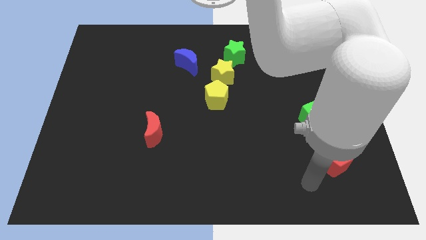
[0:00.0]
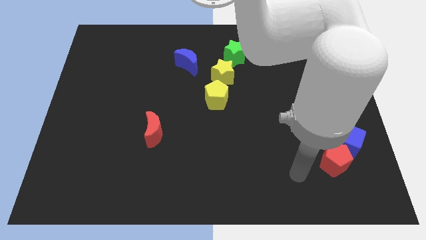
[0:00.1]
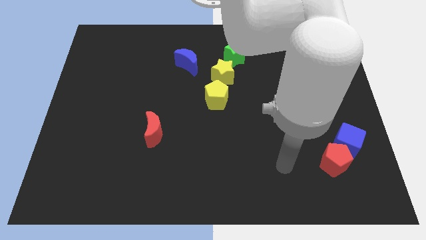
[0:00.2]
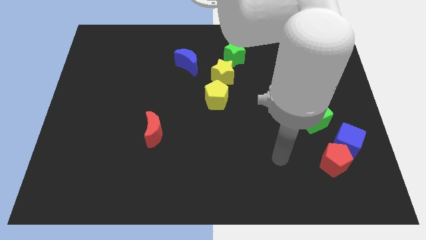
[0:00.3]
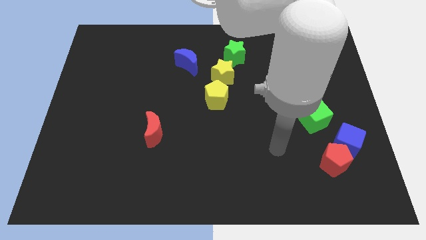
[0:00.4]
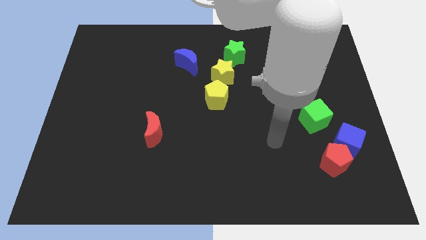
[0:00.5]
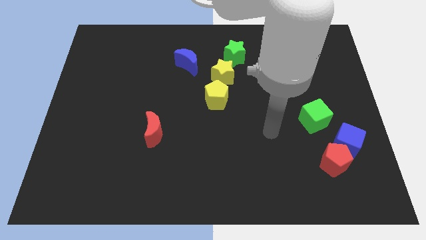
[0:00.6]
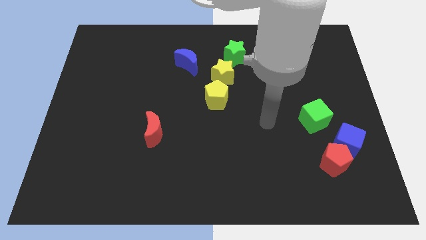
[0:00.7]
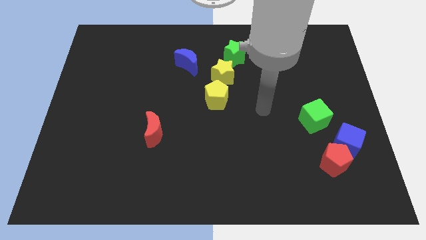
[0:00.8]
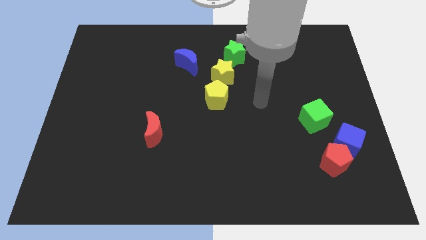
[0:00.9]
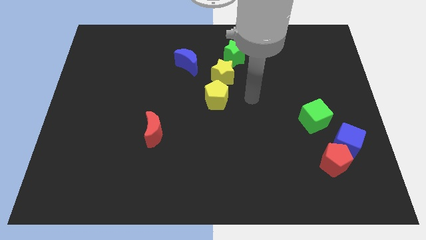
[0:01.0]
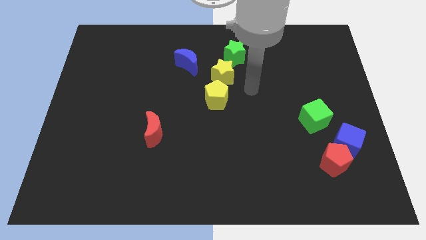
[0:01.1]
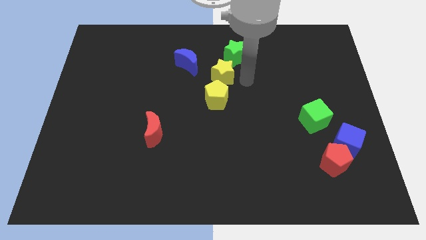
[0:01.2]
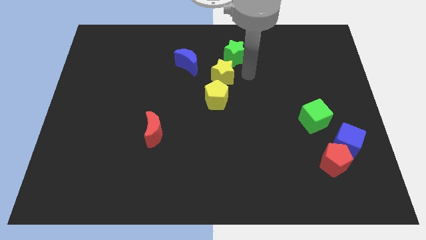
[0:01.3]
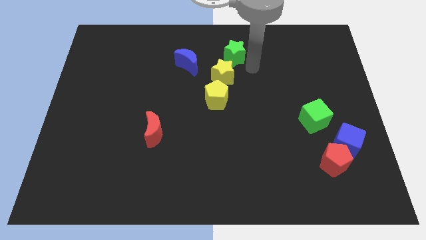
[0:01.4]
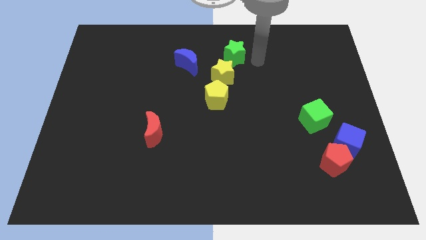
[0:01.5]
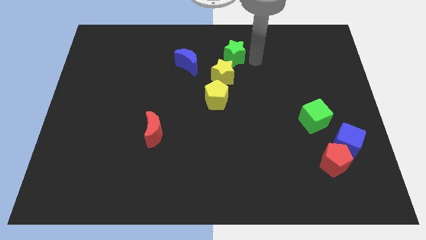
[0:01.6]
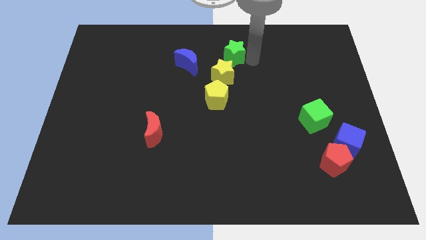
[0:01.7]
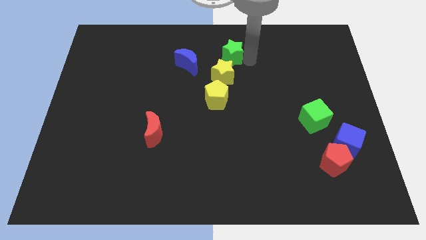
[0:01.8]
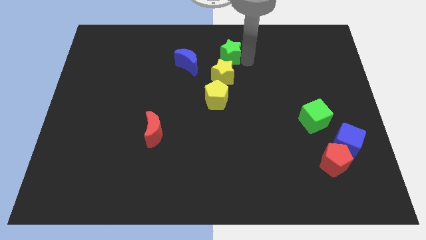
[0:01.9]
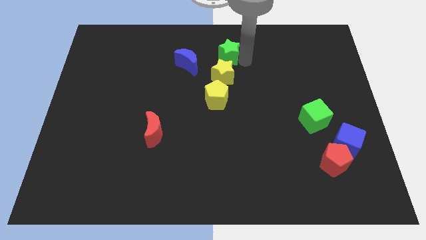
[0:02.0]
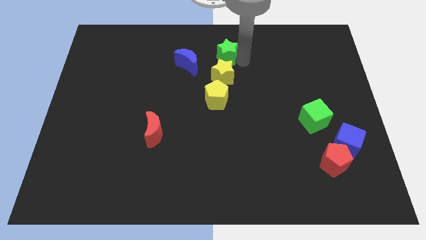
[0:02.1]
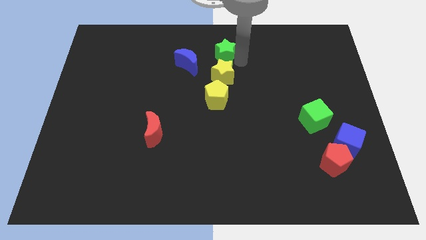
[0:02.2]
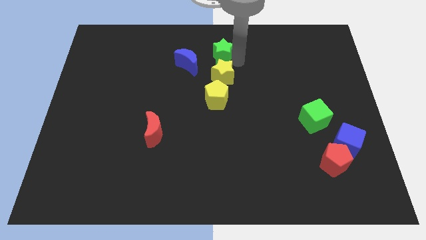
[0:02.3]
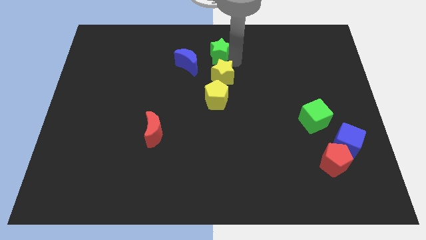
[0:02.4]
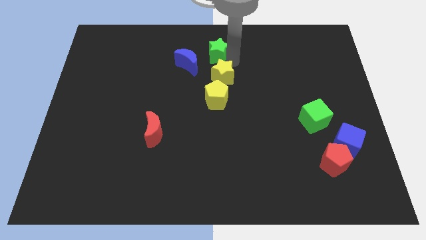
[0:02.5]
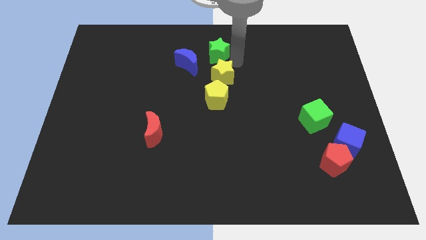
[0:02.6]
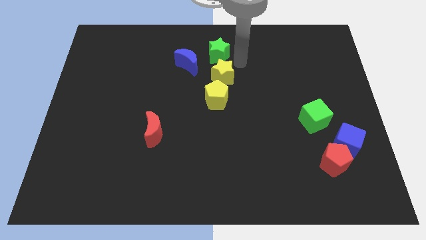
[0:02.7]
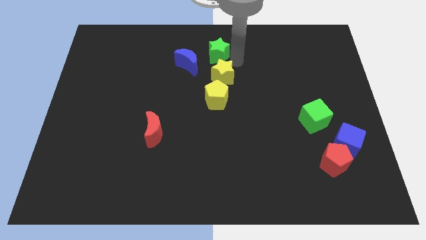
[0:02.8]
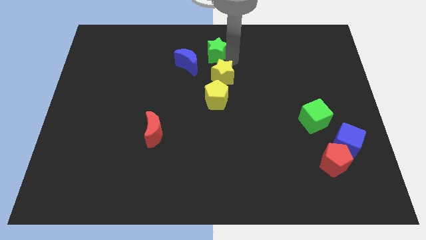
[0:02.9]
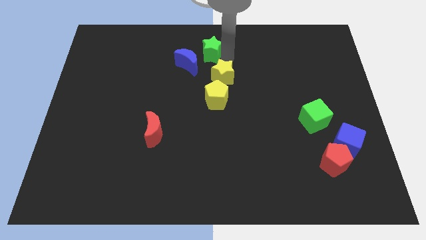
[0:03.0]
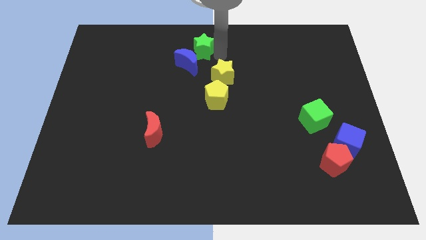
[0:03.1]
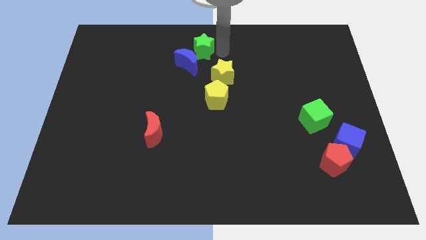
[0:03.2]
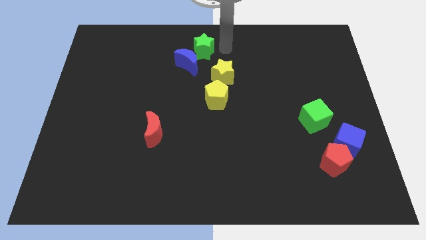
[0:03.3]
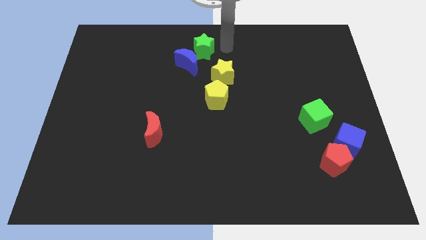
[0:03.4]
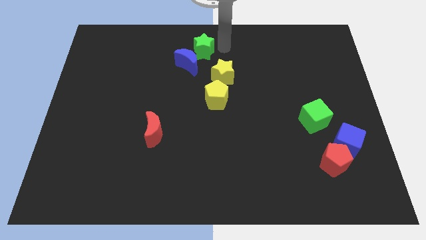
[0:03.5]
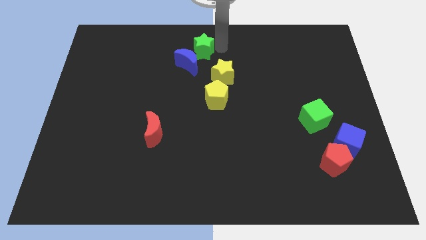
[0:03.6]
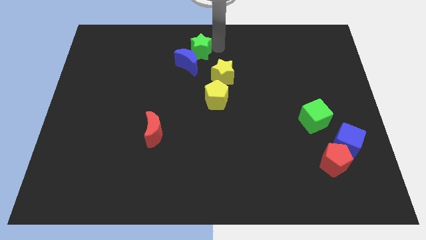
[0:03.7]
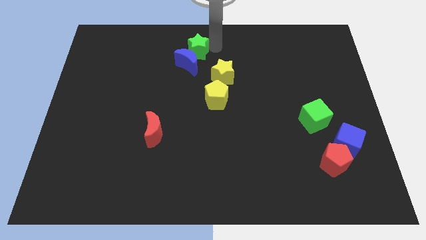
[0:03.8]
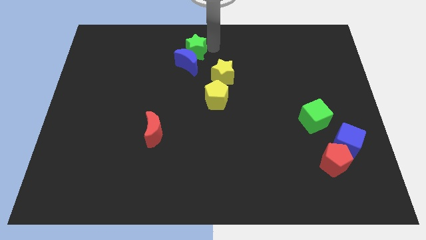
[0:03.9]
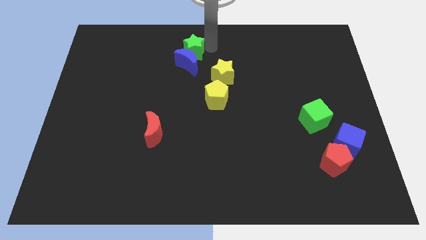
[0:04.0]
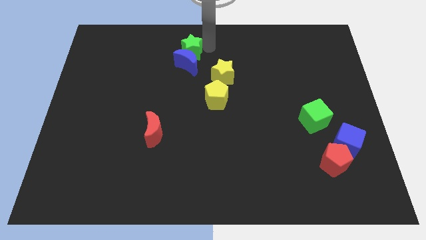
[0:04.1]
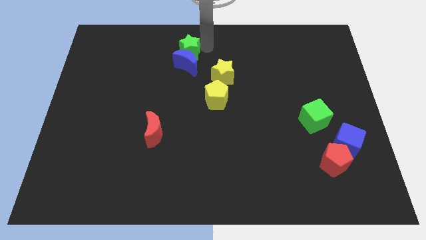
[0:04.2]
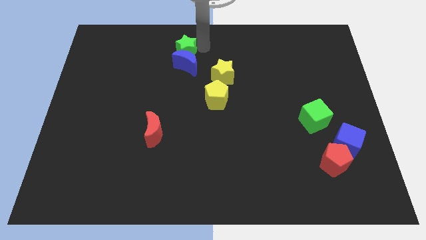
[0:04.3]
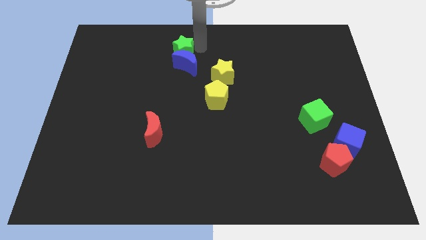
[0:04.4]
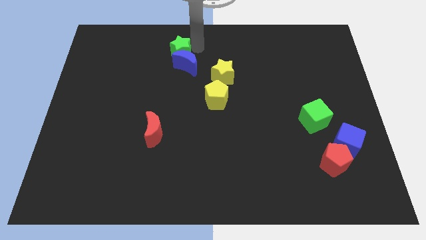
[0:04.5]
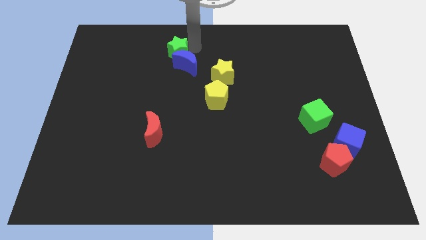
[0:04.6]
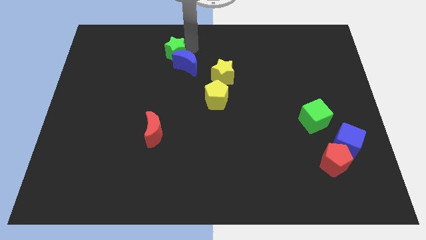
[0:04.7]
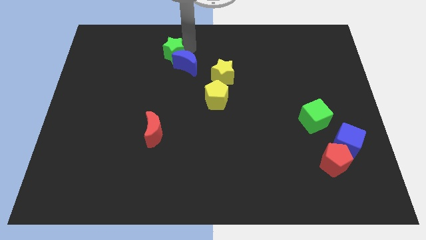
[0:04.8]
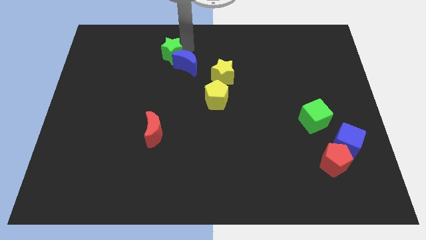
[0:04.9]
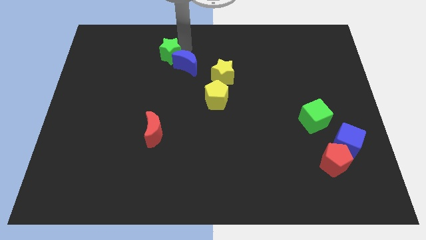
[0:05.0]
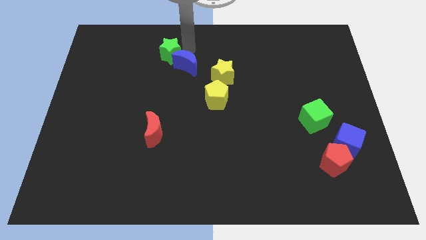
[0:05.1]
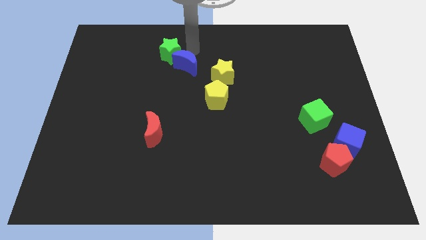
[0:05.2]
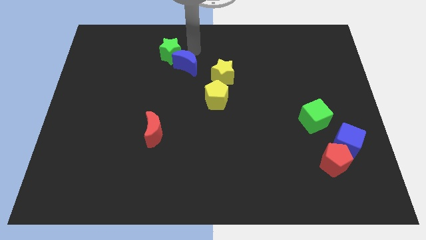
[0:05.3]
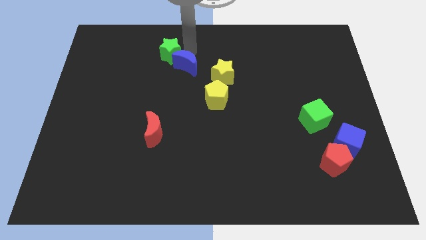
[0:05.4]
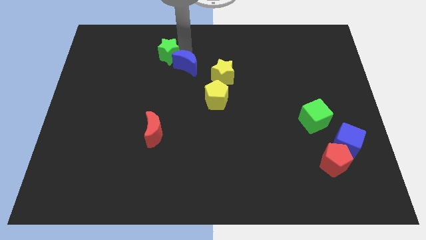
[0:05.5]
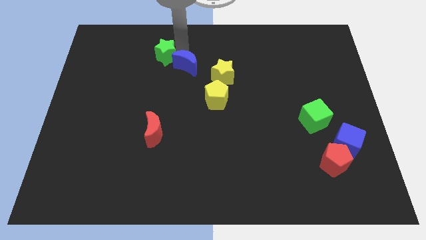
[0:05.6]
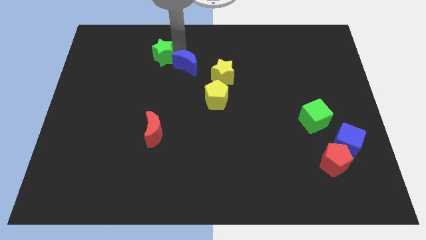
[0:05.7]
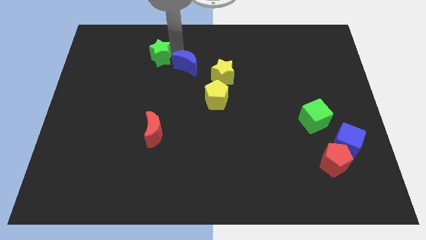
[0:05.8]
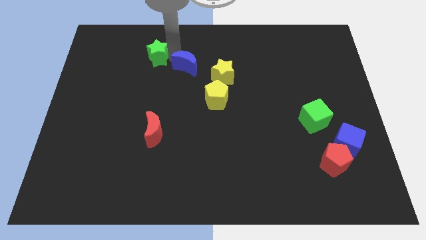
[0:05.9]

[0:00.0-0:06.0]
slide the green star to the left

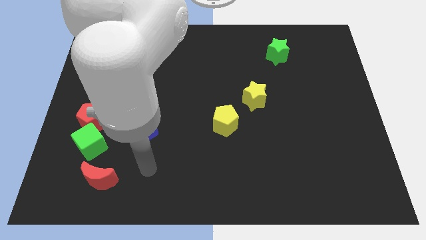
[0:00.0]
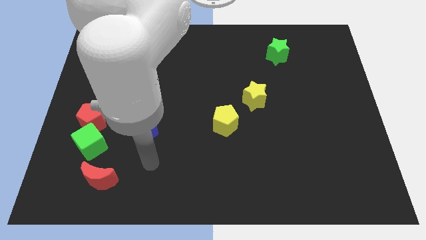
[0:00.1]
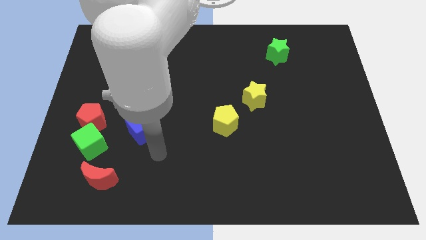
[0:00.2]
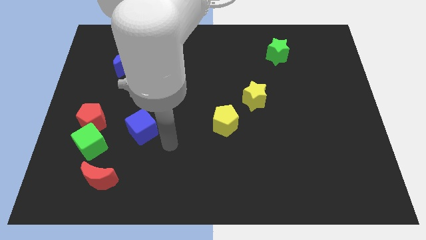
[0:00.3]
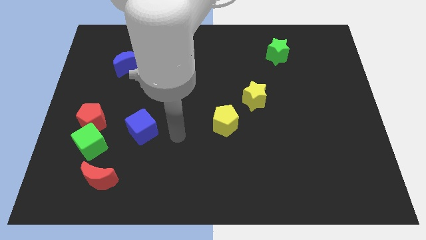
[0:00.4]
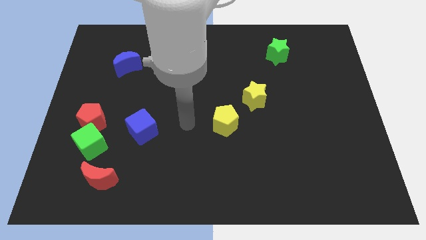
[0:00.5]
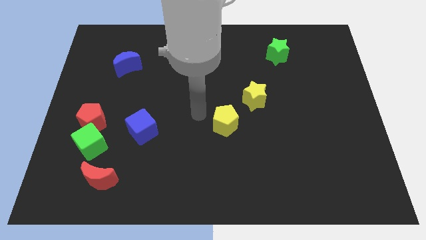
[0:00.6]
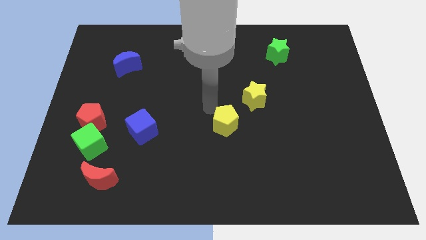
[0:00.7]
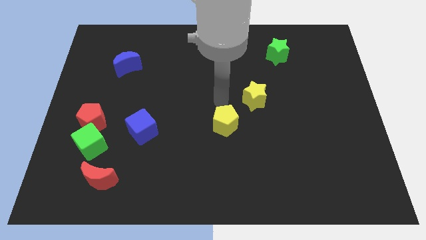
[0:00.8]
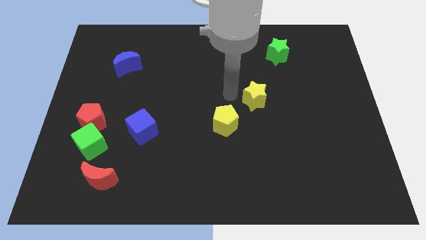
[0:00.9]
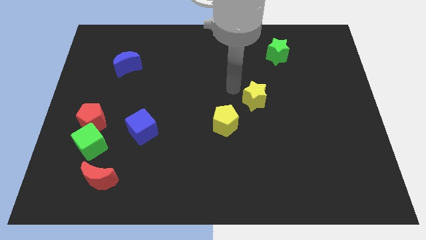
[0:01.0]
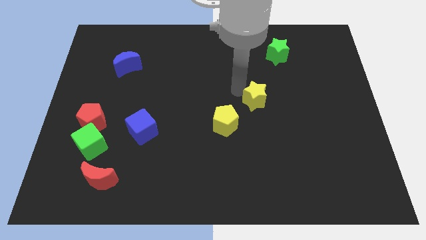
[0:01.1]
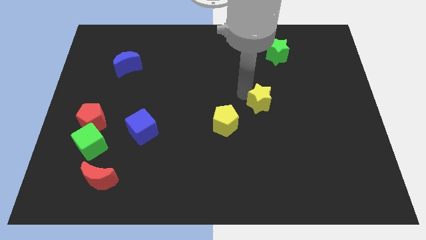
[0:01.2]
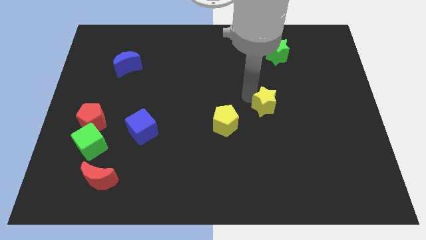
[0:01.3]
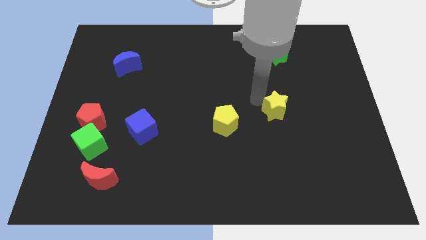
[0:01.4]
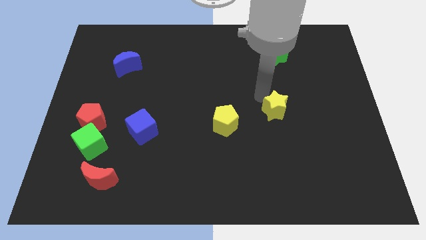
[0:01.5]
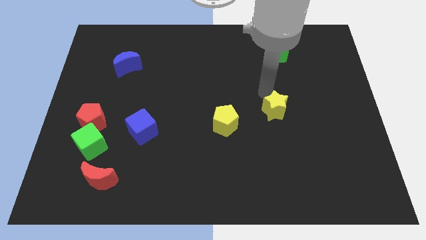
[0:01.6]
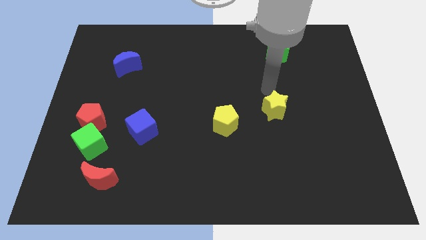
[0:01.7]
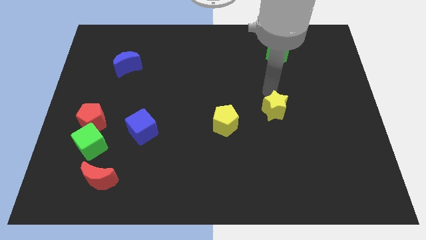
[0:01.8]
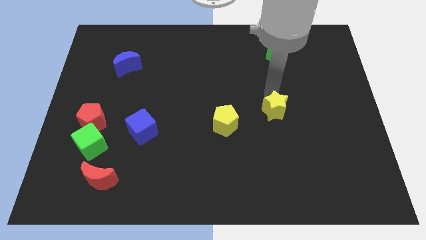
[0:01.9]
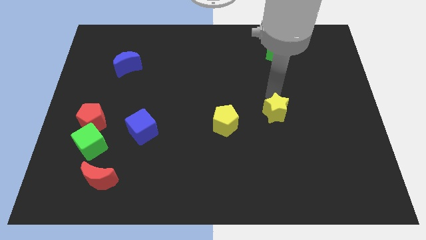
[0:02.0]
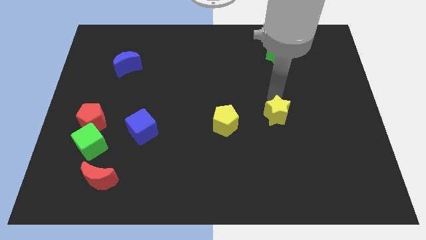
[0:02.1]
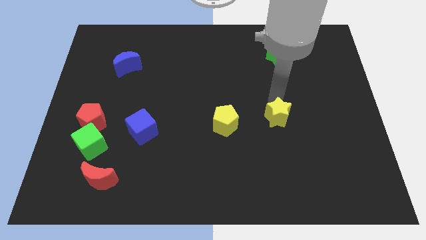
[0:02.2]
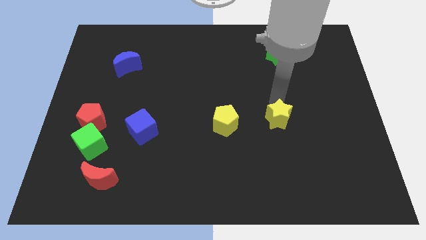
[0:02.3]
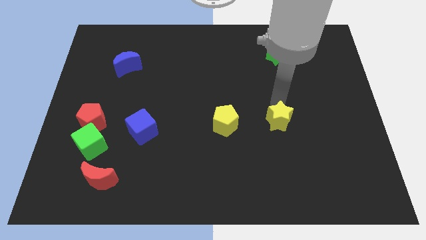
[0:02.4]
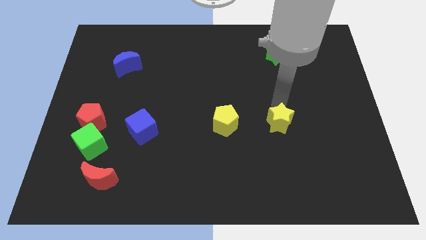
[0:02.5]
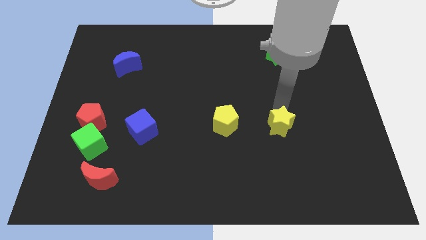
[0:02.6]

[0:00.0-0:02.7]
slightly move the yellow star downwards
